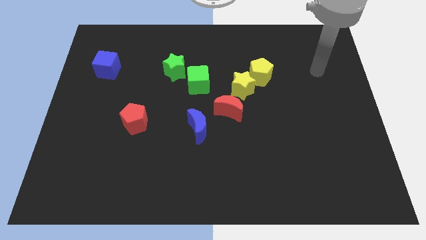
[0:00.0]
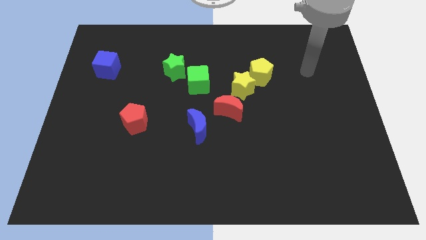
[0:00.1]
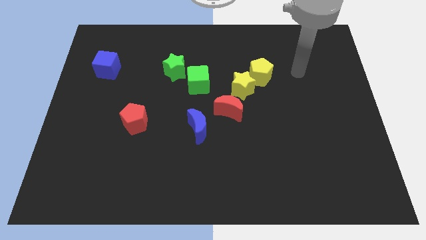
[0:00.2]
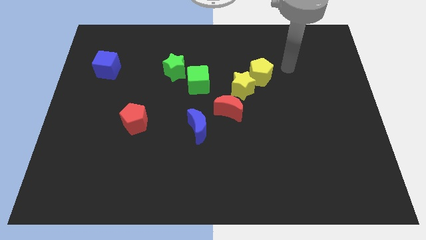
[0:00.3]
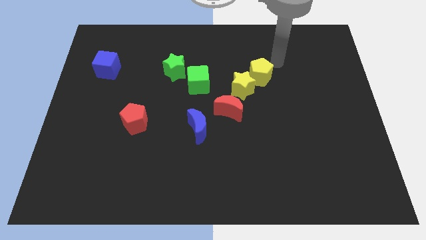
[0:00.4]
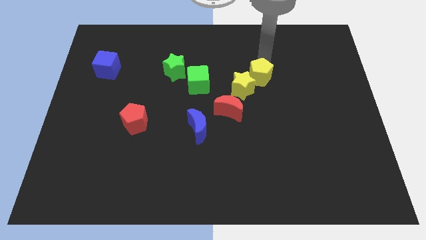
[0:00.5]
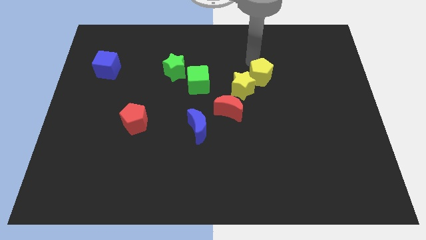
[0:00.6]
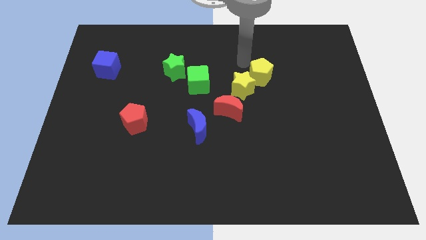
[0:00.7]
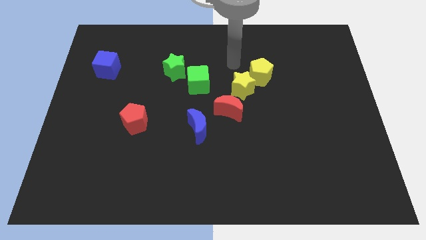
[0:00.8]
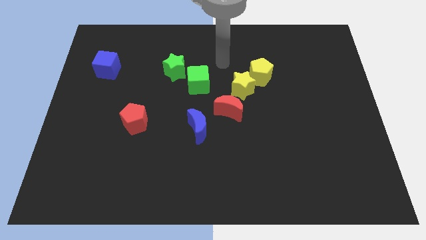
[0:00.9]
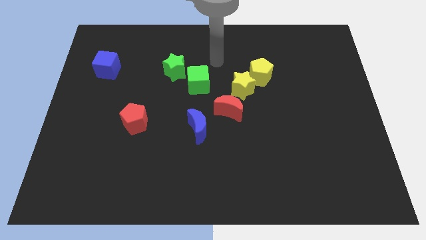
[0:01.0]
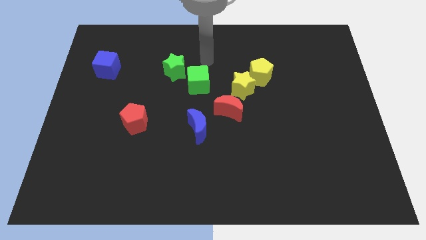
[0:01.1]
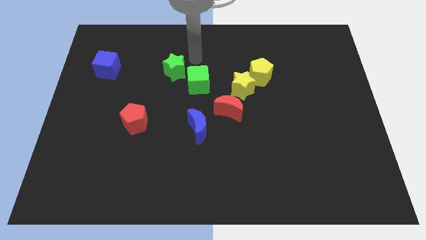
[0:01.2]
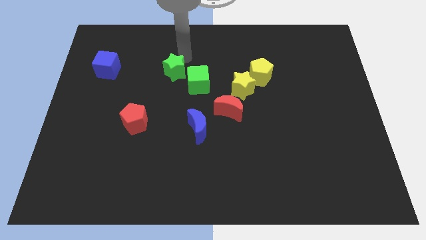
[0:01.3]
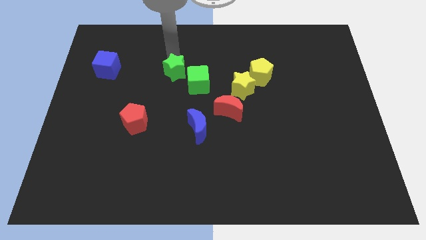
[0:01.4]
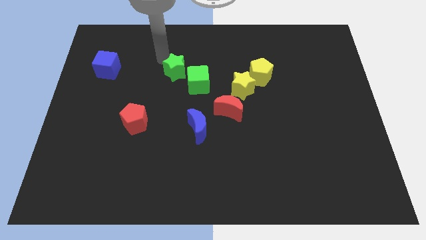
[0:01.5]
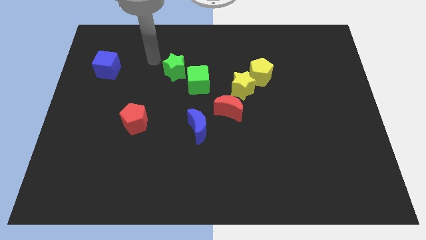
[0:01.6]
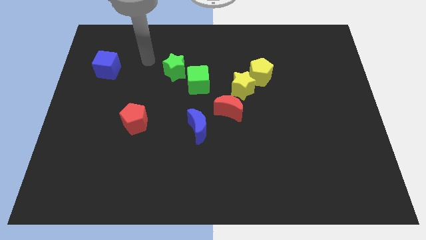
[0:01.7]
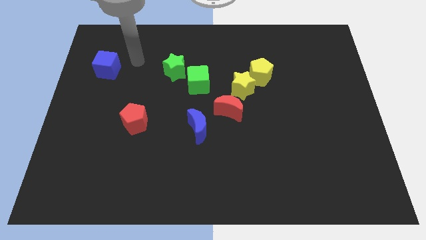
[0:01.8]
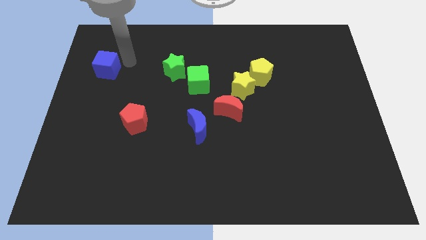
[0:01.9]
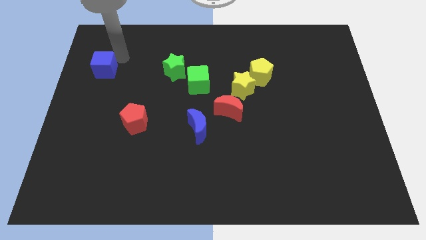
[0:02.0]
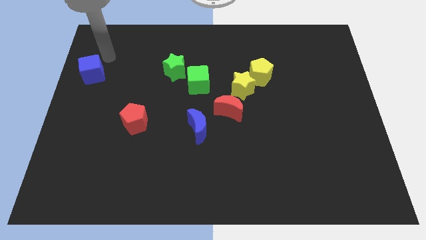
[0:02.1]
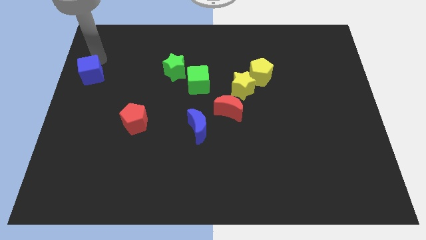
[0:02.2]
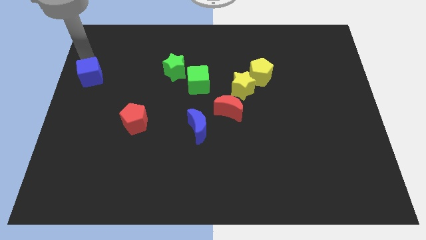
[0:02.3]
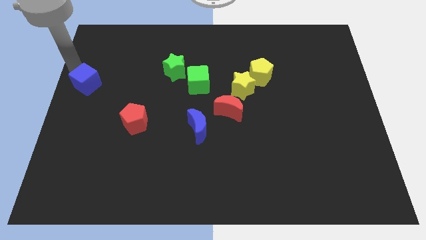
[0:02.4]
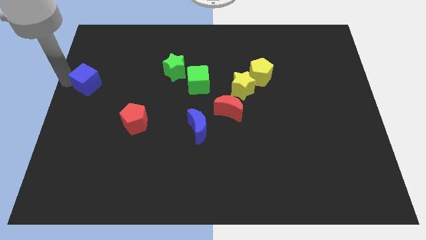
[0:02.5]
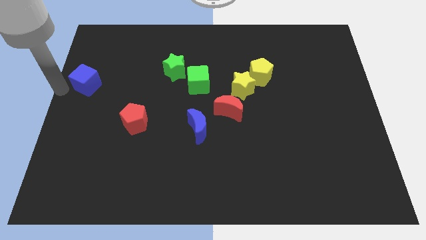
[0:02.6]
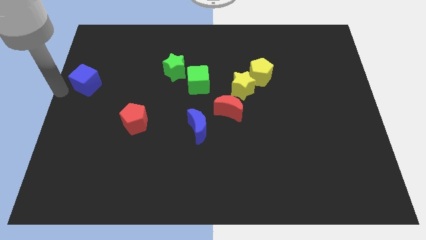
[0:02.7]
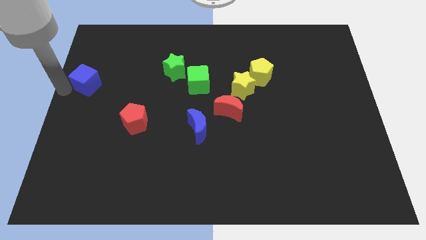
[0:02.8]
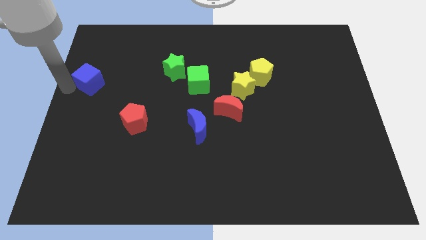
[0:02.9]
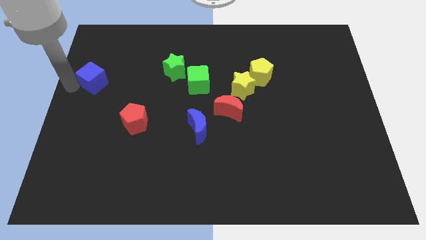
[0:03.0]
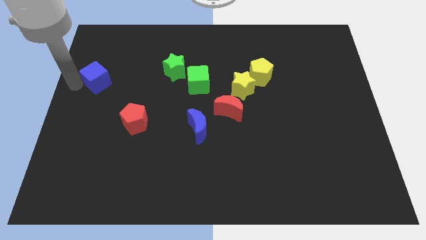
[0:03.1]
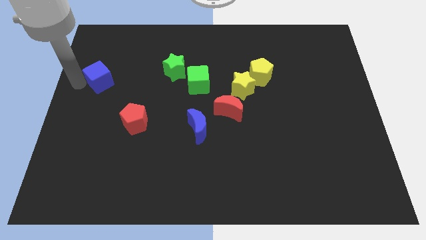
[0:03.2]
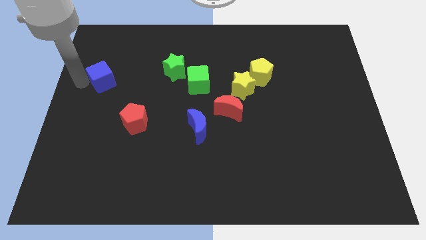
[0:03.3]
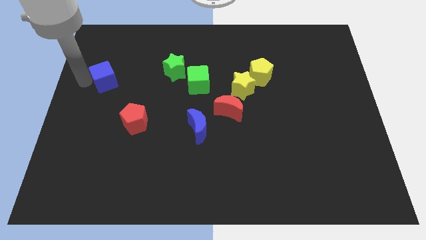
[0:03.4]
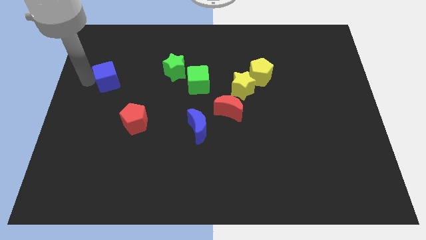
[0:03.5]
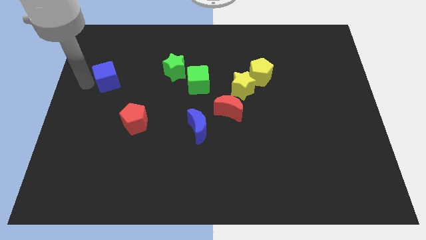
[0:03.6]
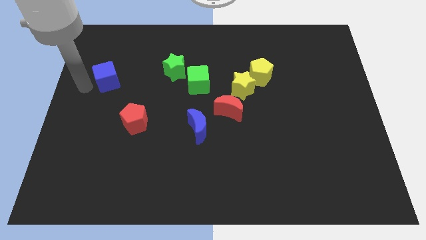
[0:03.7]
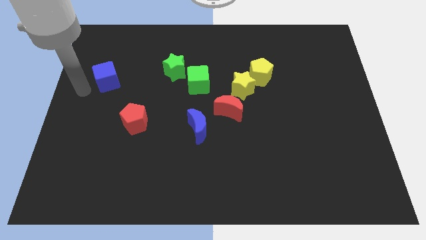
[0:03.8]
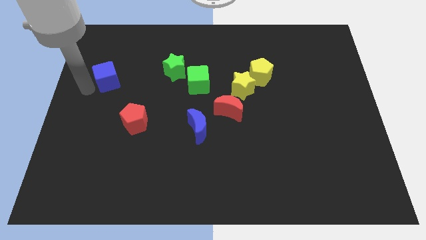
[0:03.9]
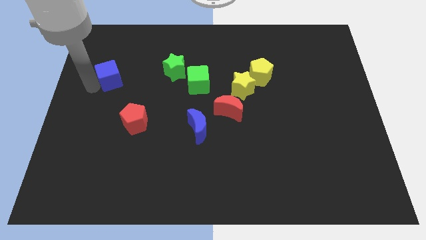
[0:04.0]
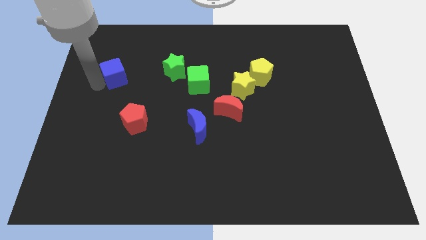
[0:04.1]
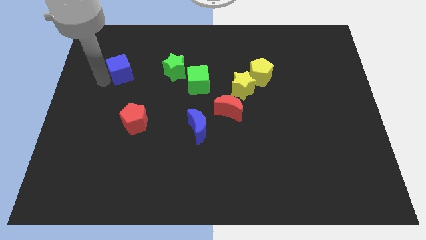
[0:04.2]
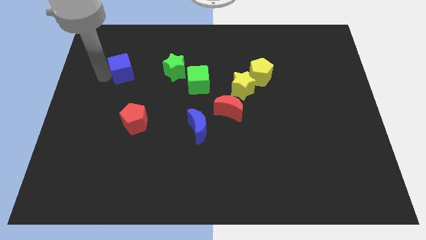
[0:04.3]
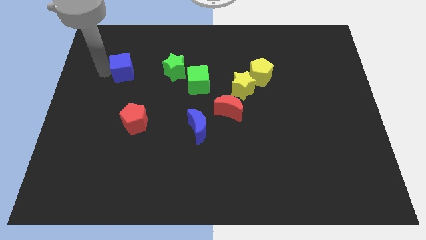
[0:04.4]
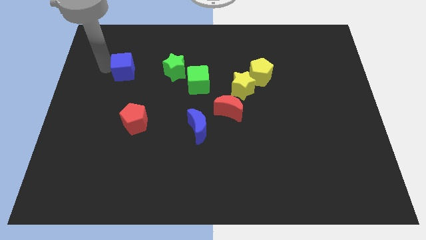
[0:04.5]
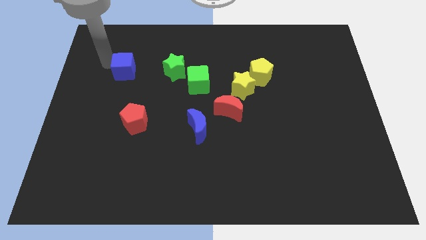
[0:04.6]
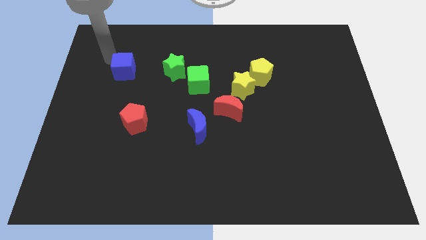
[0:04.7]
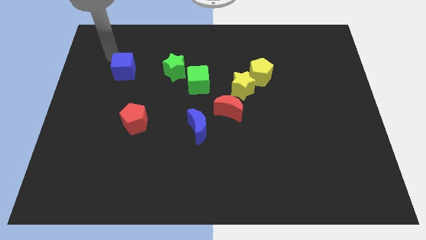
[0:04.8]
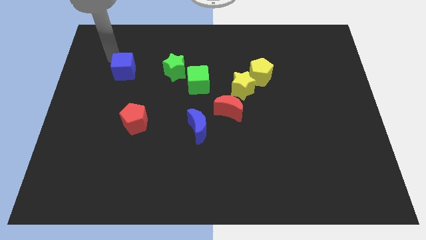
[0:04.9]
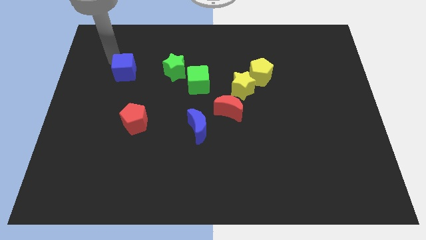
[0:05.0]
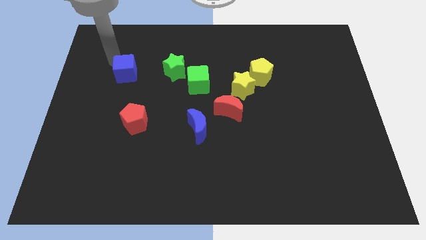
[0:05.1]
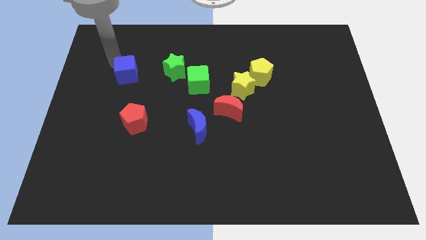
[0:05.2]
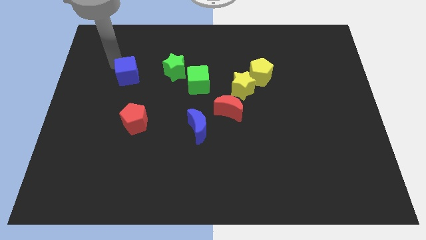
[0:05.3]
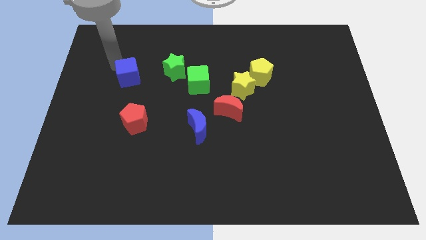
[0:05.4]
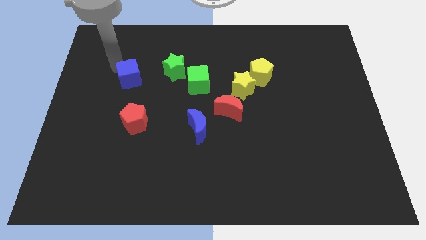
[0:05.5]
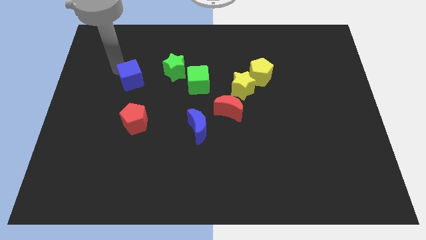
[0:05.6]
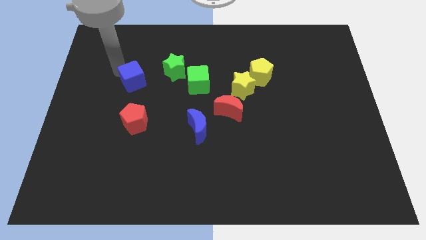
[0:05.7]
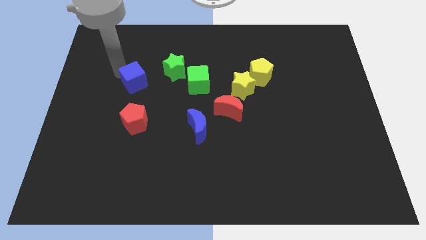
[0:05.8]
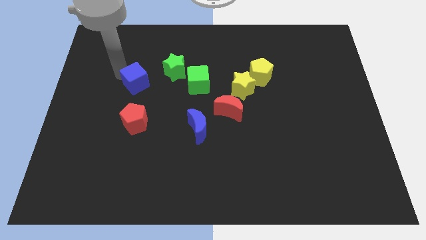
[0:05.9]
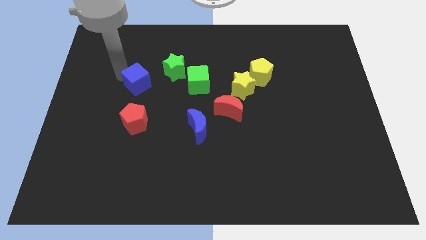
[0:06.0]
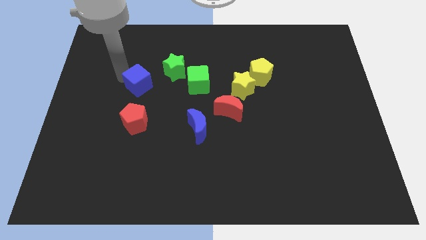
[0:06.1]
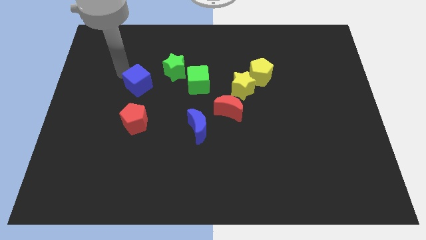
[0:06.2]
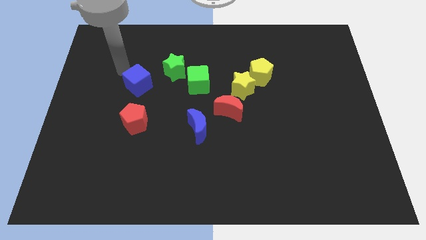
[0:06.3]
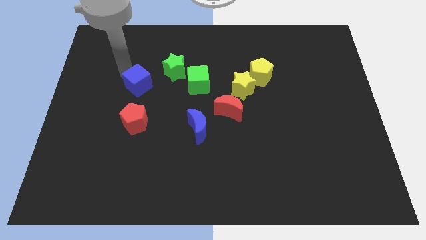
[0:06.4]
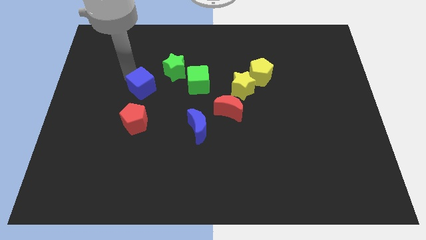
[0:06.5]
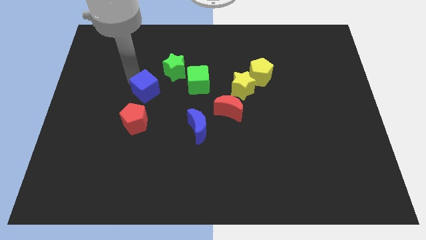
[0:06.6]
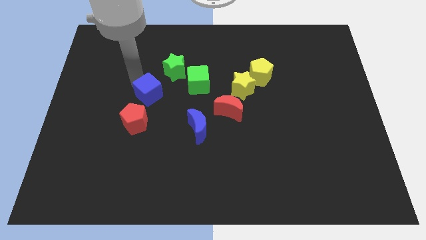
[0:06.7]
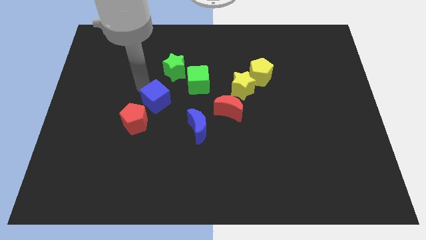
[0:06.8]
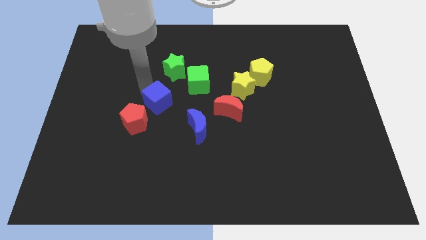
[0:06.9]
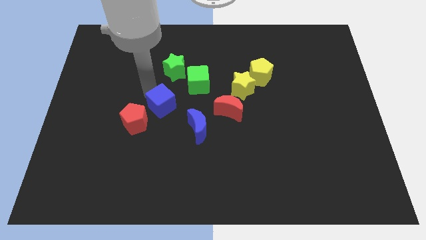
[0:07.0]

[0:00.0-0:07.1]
slide the blue cube just right of the red pentagon
